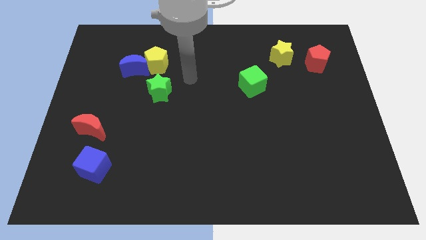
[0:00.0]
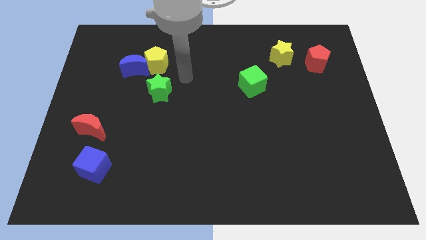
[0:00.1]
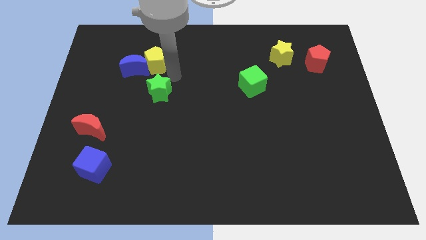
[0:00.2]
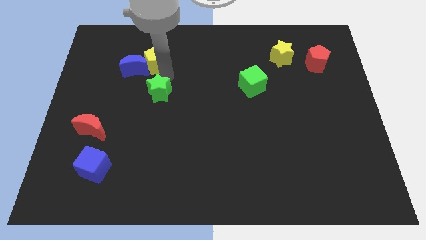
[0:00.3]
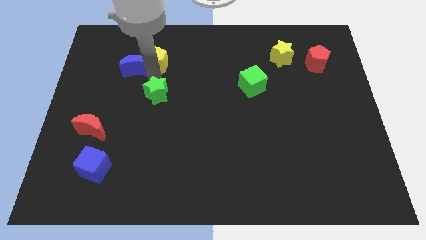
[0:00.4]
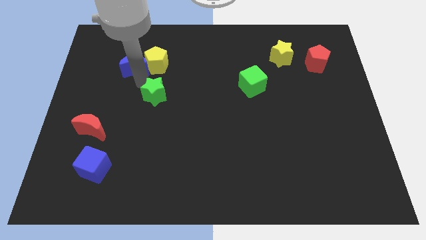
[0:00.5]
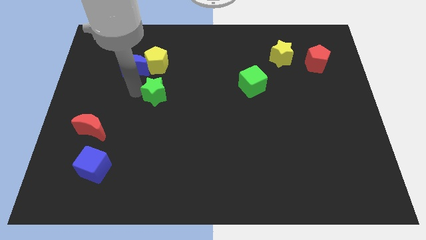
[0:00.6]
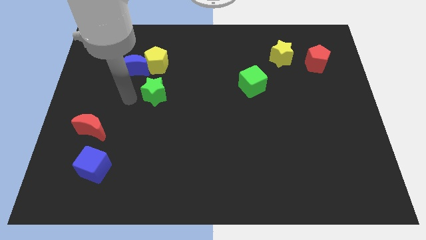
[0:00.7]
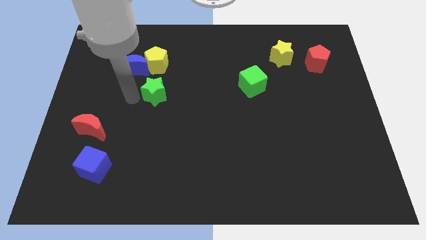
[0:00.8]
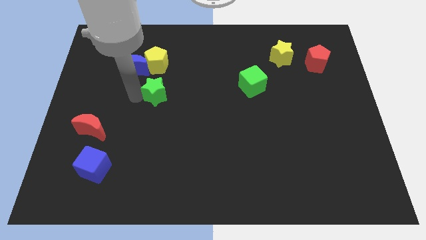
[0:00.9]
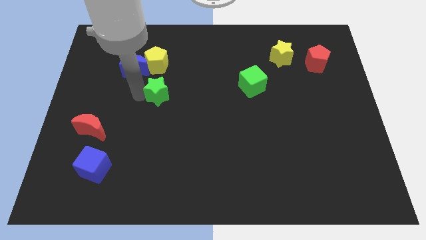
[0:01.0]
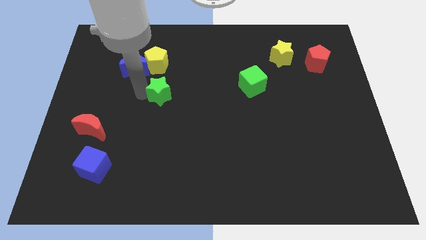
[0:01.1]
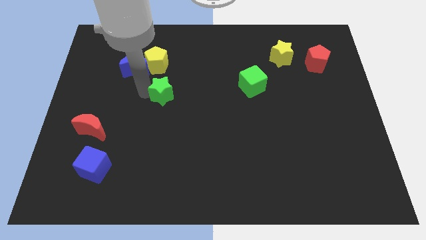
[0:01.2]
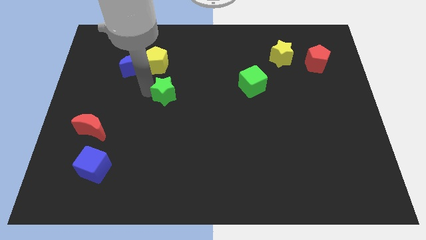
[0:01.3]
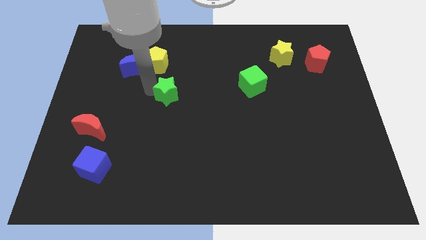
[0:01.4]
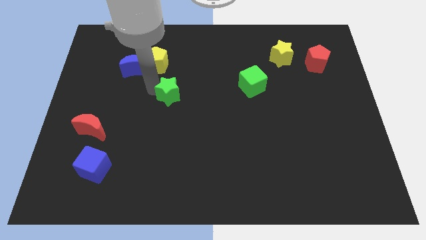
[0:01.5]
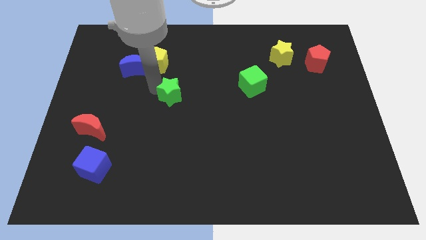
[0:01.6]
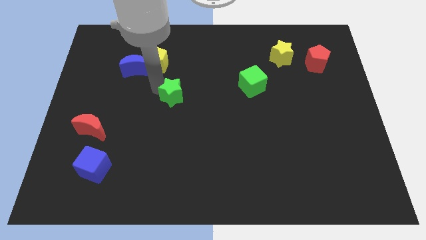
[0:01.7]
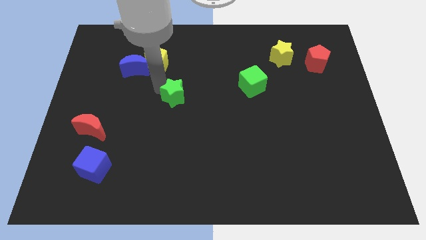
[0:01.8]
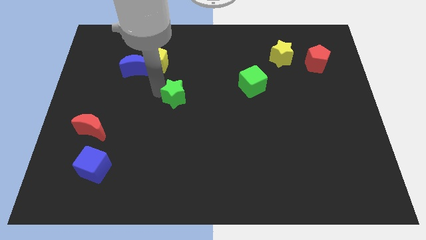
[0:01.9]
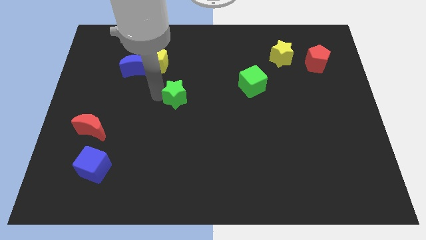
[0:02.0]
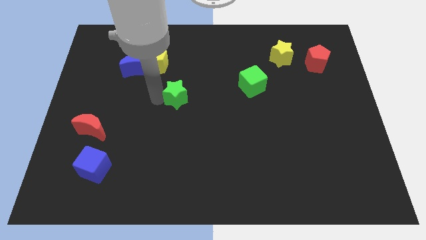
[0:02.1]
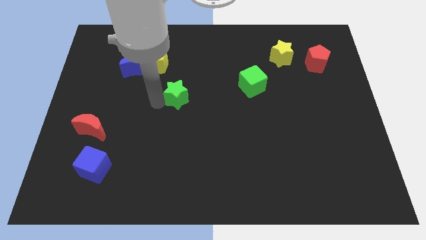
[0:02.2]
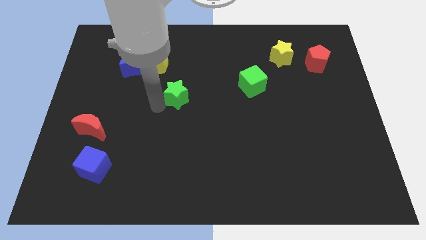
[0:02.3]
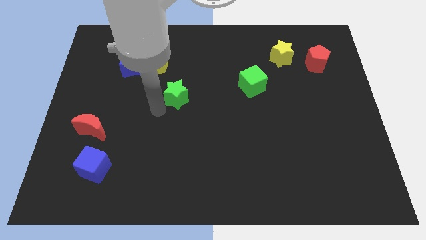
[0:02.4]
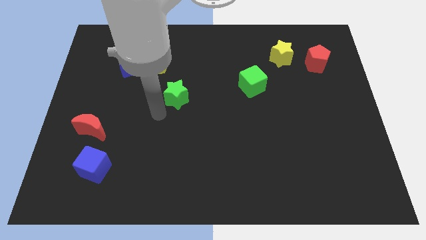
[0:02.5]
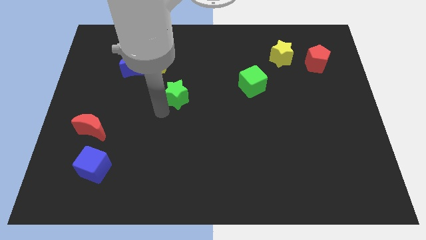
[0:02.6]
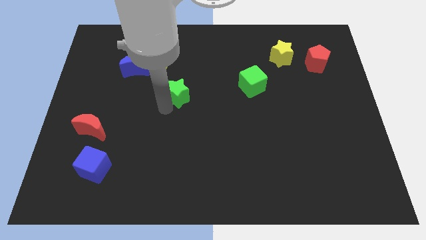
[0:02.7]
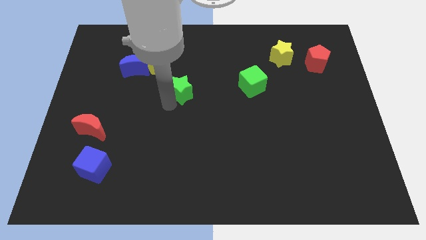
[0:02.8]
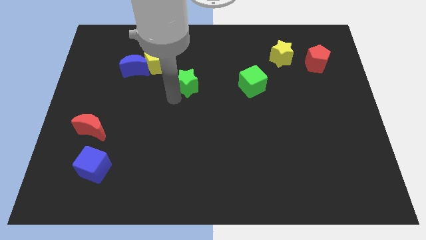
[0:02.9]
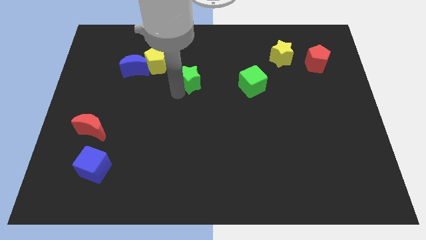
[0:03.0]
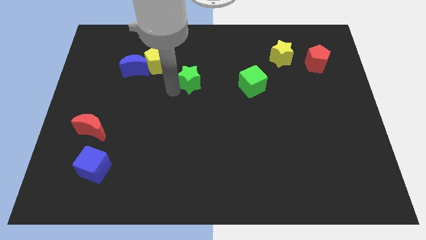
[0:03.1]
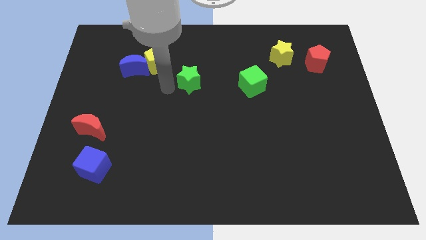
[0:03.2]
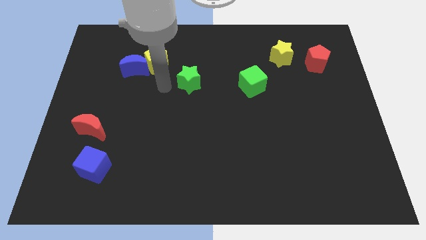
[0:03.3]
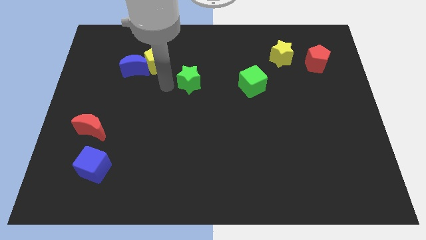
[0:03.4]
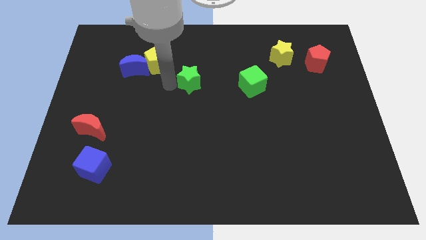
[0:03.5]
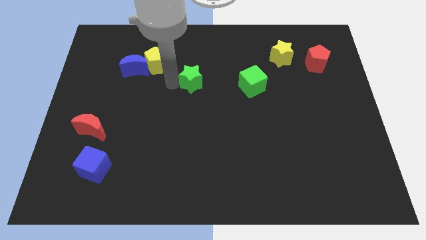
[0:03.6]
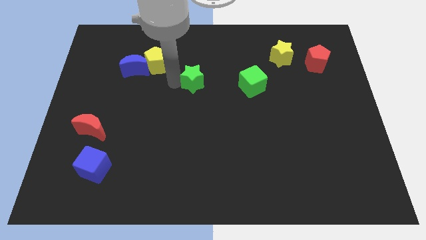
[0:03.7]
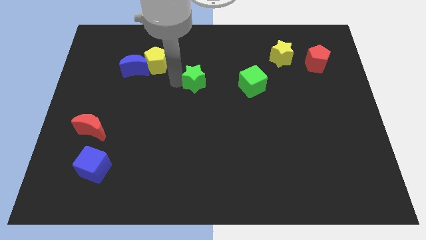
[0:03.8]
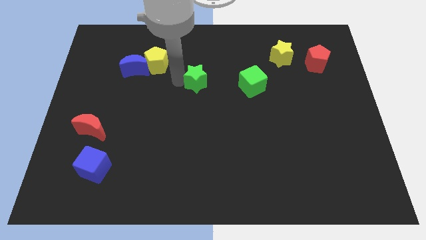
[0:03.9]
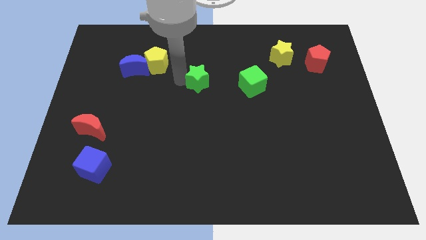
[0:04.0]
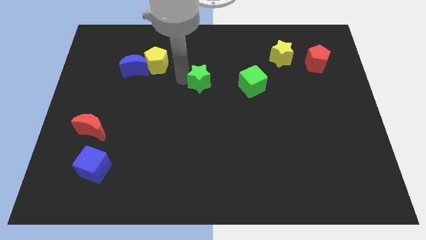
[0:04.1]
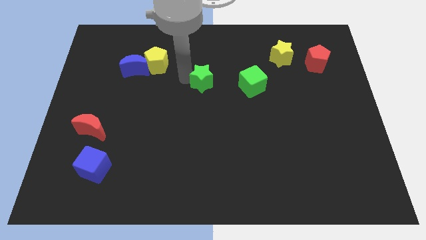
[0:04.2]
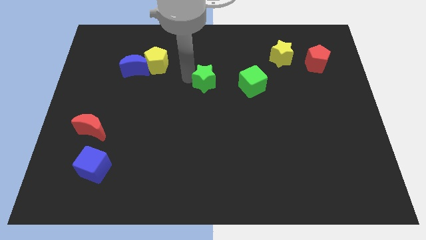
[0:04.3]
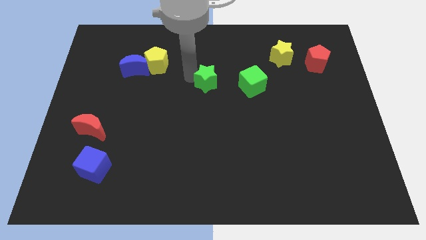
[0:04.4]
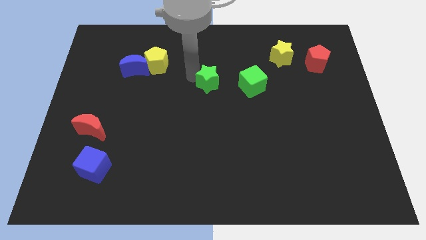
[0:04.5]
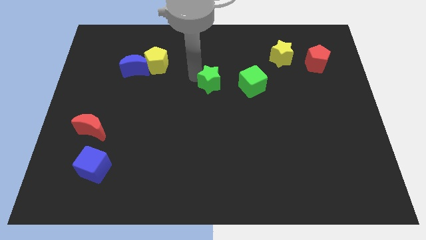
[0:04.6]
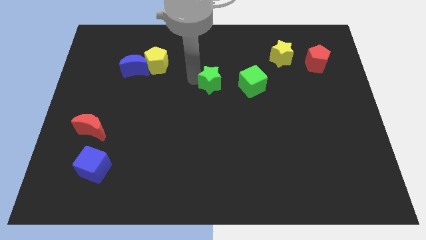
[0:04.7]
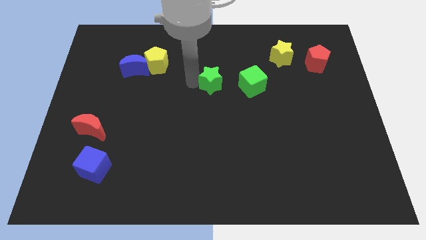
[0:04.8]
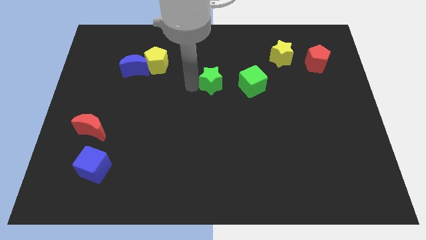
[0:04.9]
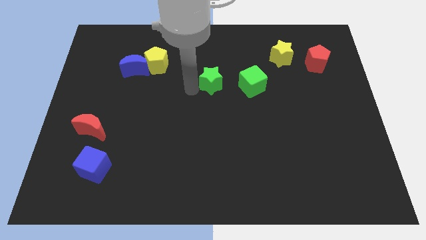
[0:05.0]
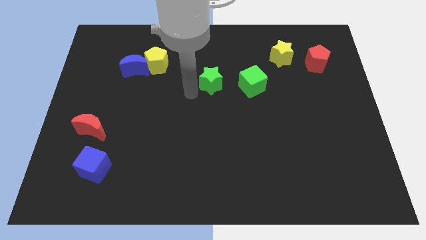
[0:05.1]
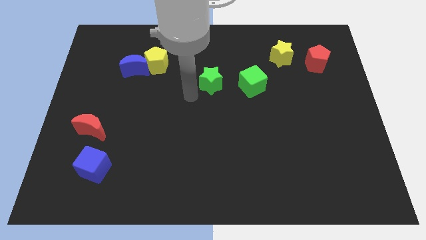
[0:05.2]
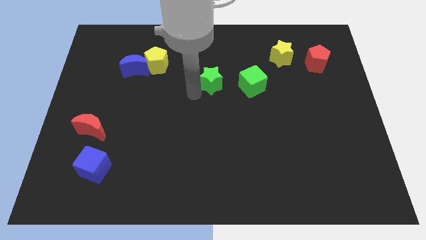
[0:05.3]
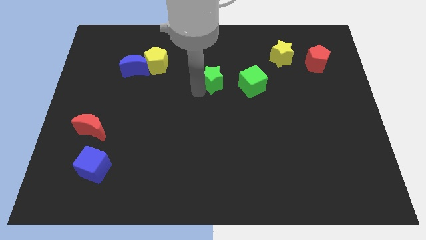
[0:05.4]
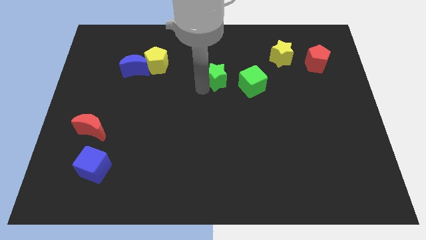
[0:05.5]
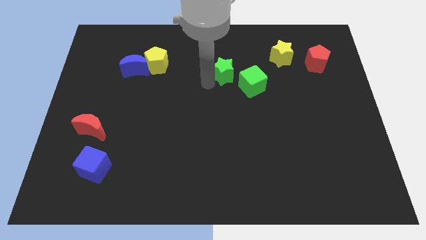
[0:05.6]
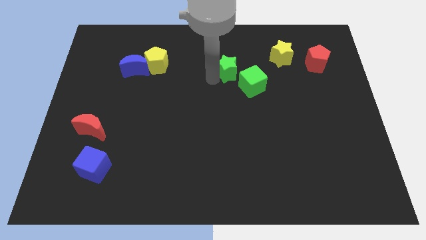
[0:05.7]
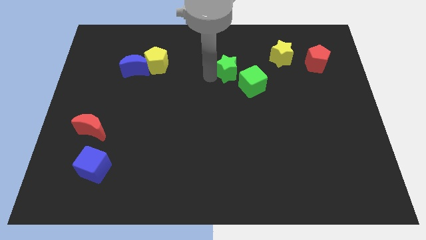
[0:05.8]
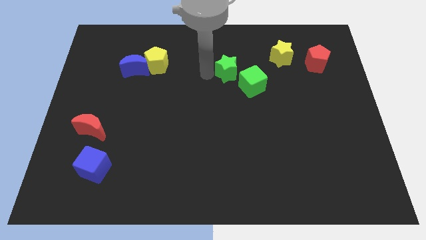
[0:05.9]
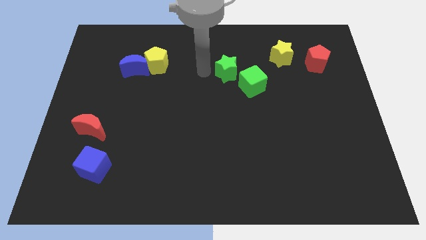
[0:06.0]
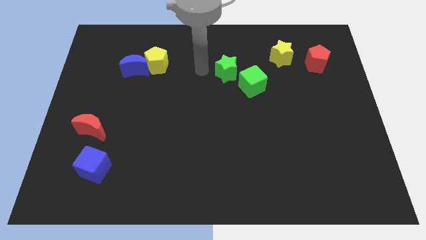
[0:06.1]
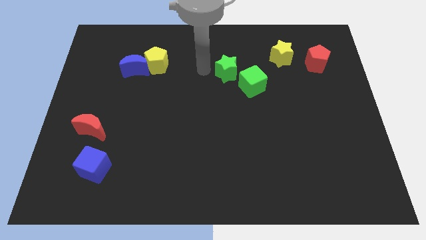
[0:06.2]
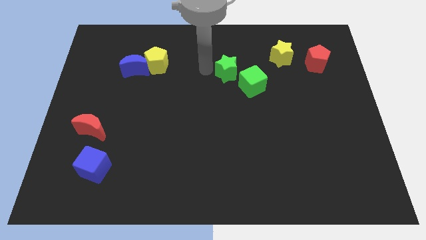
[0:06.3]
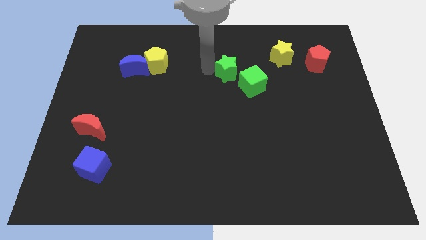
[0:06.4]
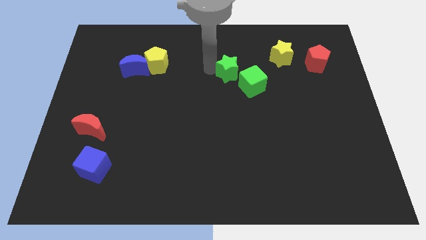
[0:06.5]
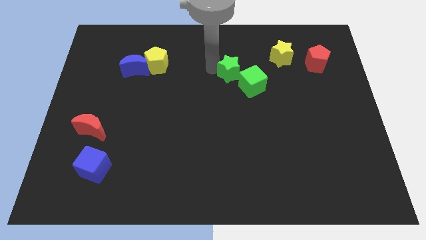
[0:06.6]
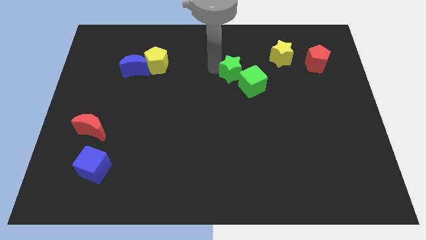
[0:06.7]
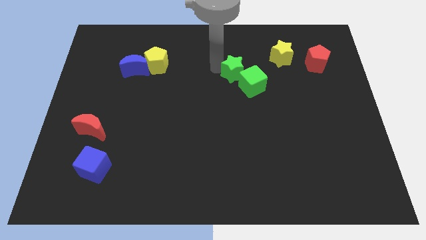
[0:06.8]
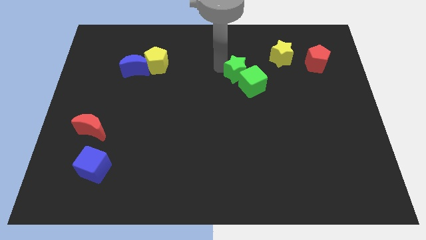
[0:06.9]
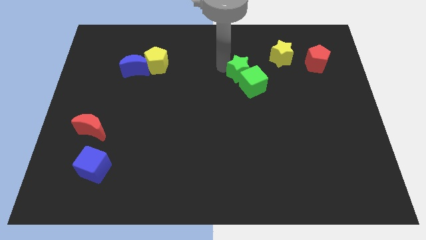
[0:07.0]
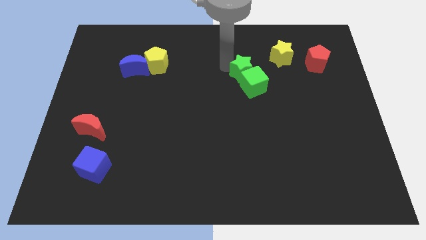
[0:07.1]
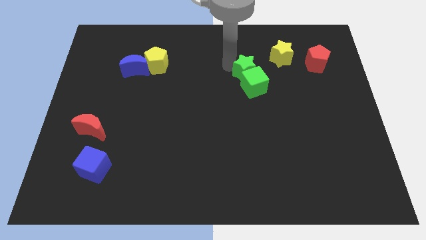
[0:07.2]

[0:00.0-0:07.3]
move the green star diagonally down and to the left of the yellow star

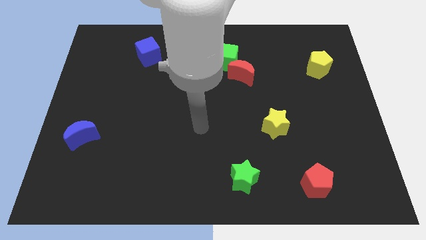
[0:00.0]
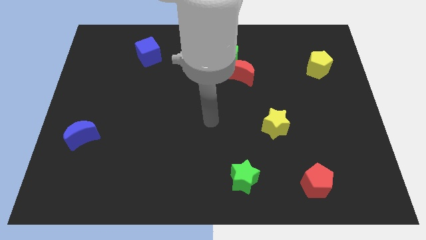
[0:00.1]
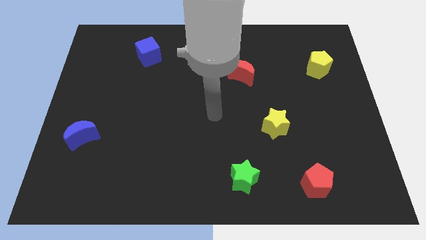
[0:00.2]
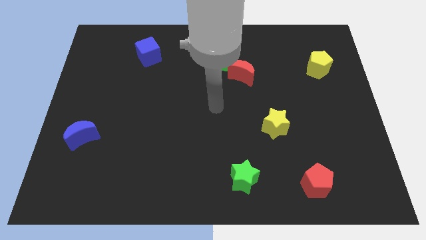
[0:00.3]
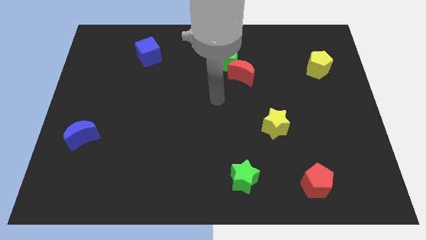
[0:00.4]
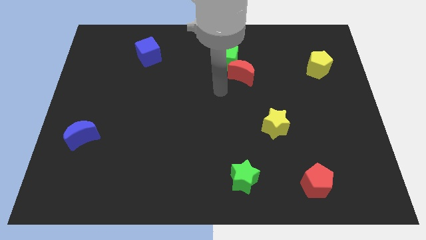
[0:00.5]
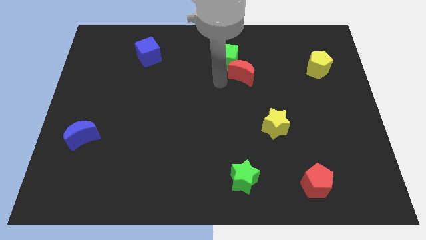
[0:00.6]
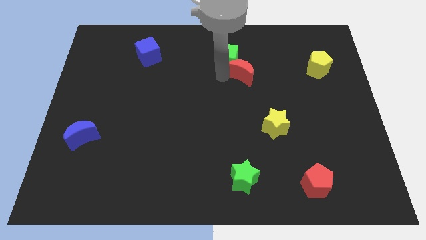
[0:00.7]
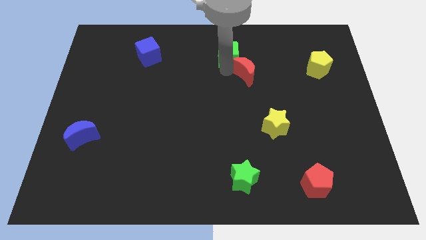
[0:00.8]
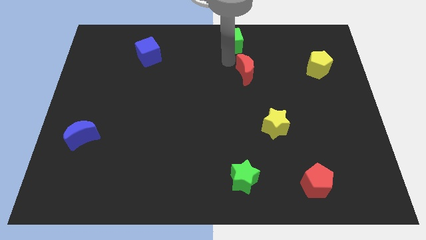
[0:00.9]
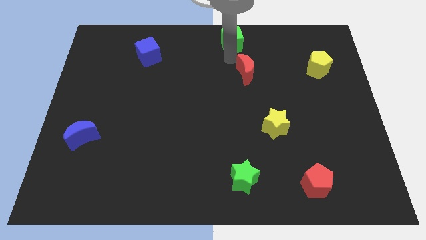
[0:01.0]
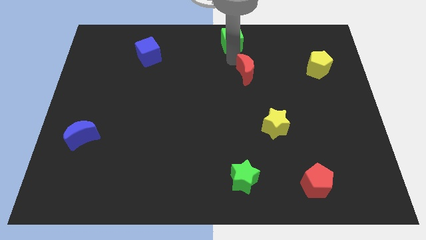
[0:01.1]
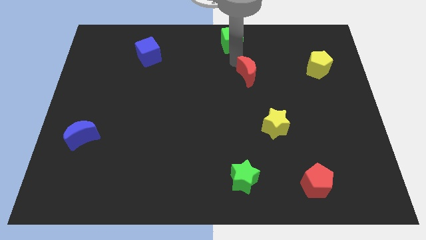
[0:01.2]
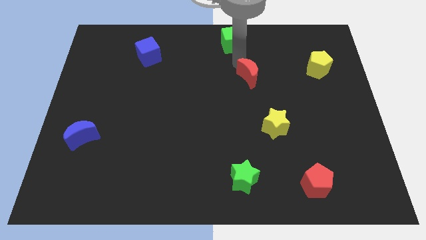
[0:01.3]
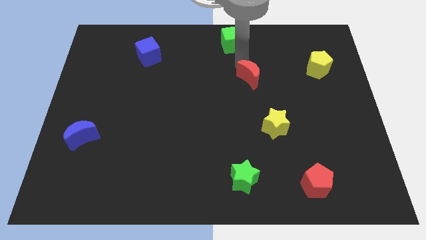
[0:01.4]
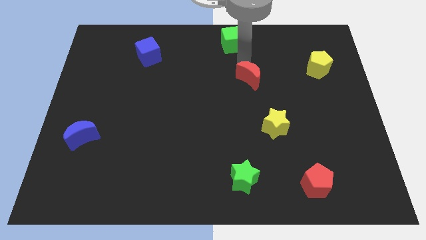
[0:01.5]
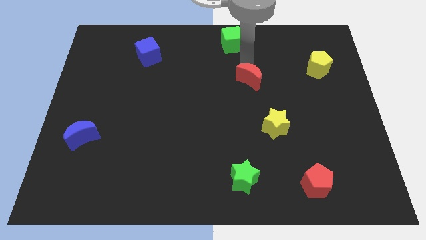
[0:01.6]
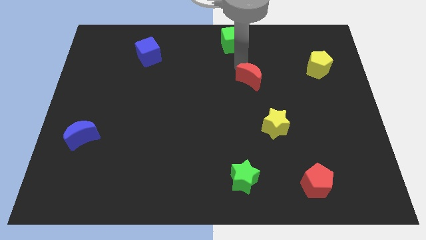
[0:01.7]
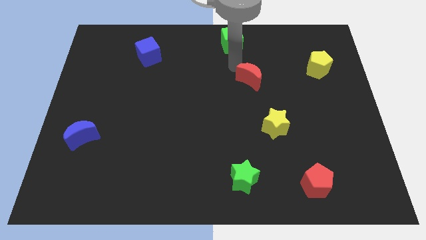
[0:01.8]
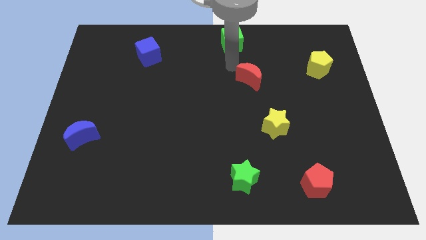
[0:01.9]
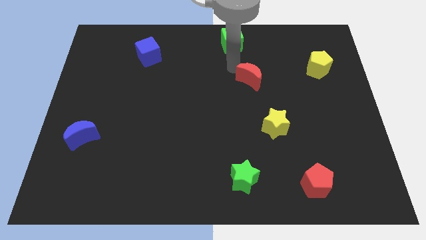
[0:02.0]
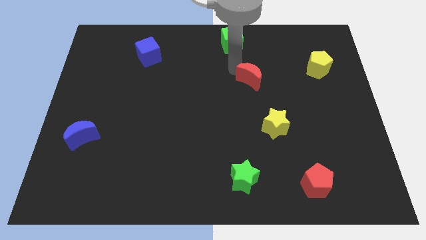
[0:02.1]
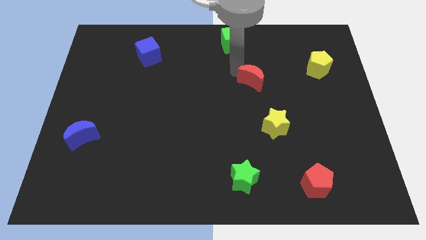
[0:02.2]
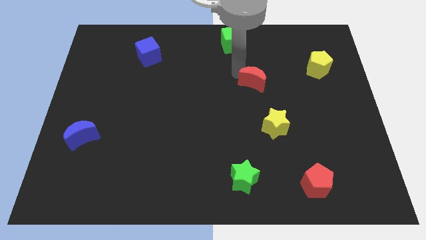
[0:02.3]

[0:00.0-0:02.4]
slide the red moon to the top side of the yellow star
